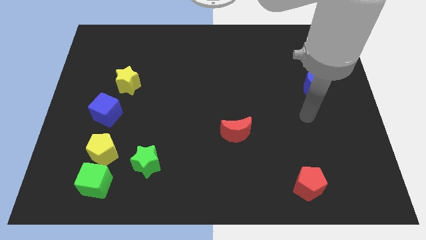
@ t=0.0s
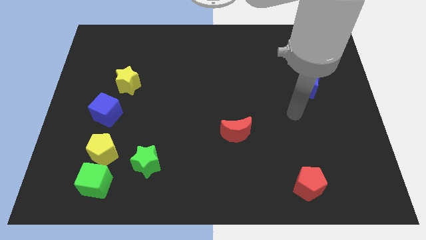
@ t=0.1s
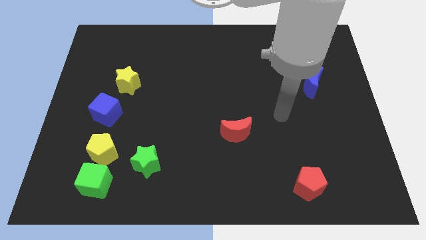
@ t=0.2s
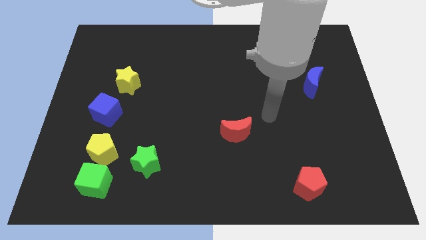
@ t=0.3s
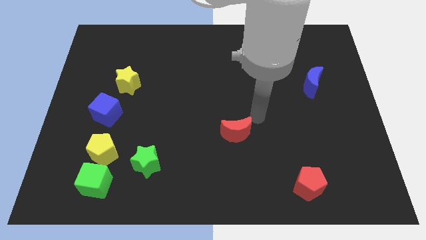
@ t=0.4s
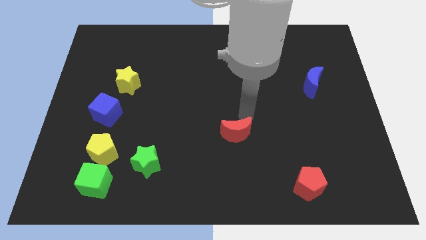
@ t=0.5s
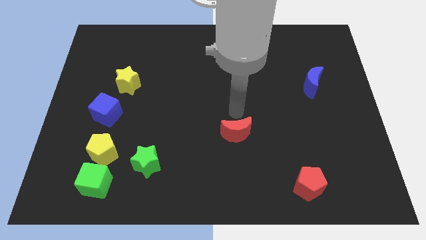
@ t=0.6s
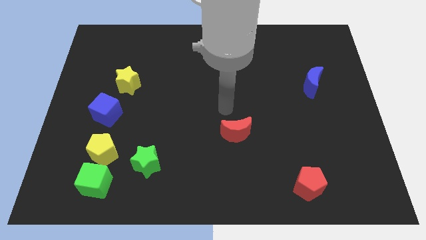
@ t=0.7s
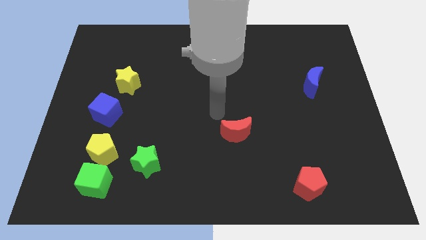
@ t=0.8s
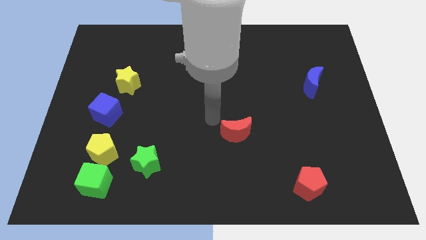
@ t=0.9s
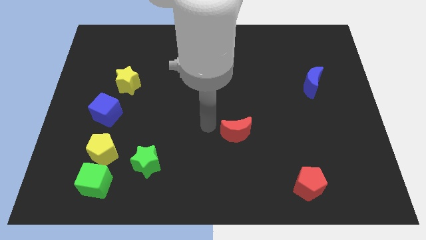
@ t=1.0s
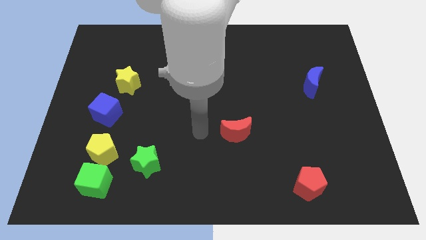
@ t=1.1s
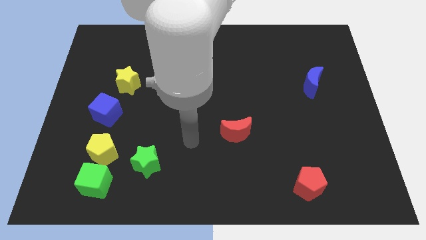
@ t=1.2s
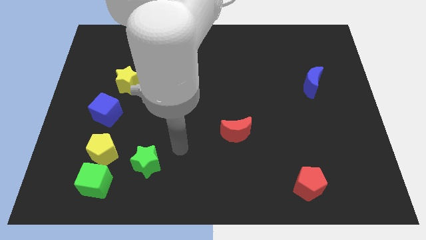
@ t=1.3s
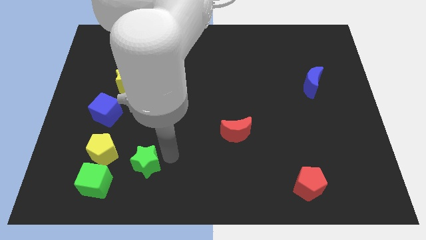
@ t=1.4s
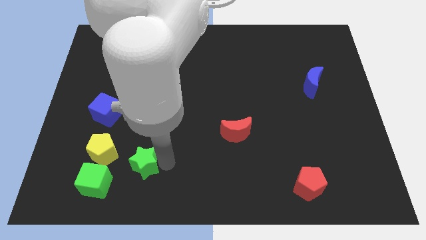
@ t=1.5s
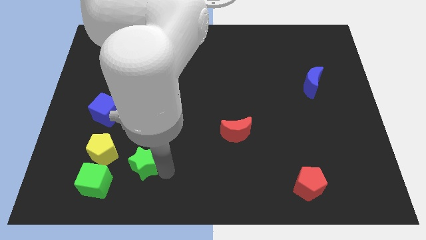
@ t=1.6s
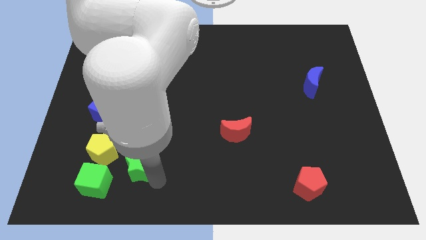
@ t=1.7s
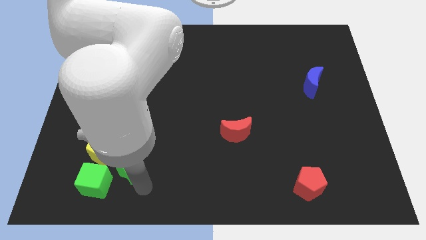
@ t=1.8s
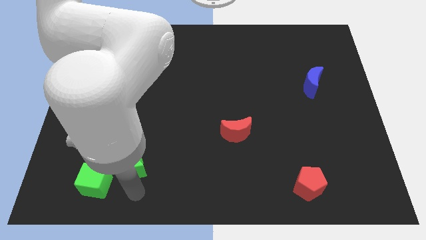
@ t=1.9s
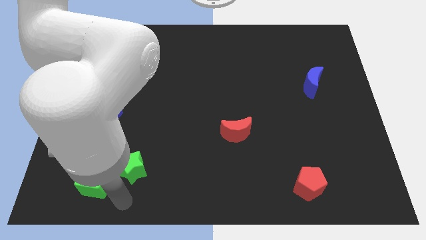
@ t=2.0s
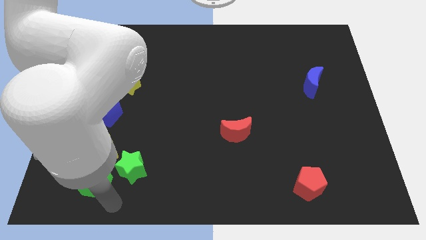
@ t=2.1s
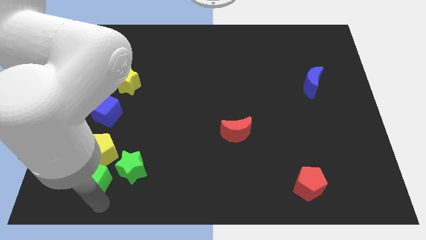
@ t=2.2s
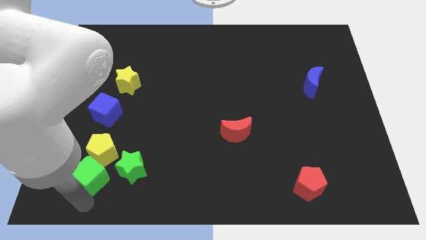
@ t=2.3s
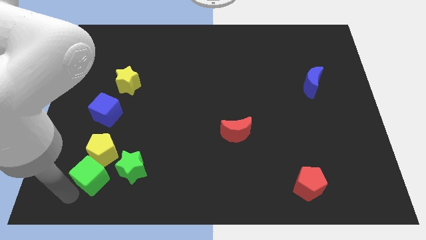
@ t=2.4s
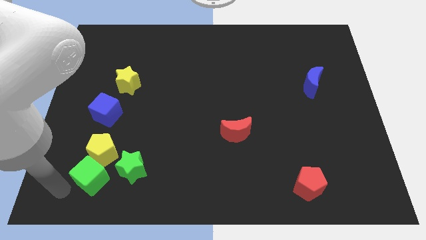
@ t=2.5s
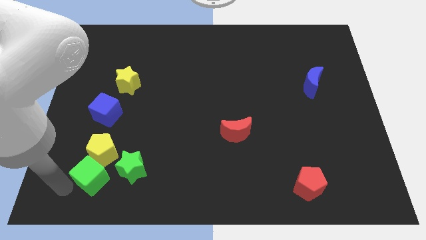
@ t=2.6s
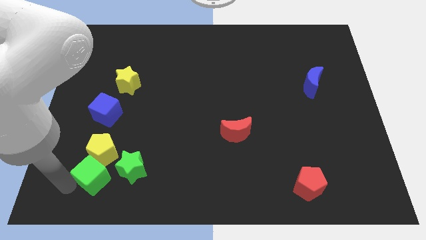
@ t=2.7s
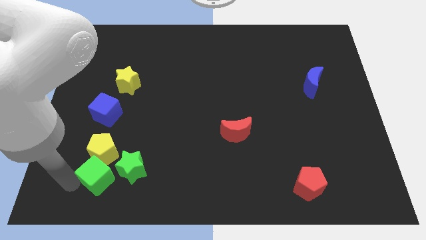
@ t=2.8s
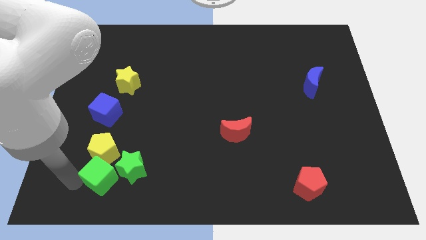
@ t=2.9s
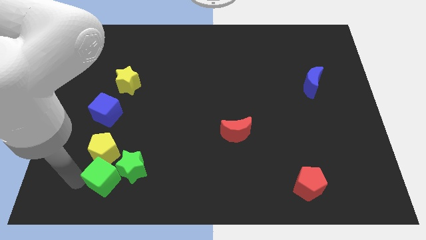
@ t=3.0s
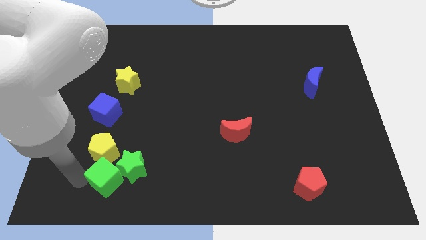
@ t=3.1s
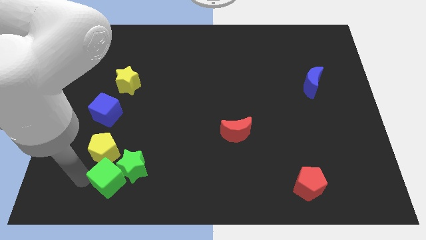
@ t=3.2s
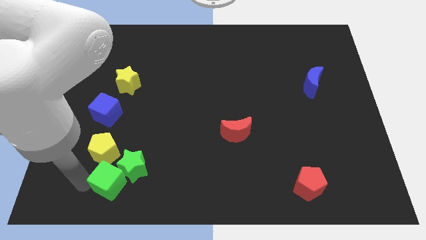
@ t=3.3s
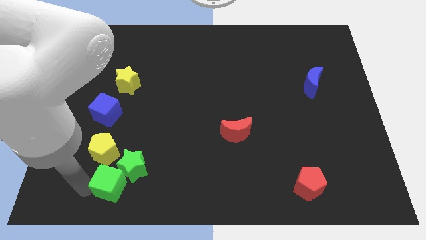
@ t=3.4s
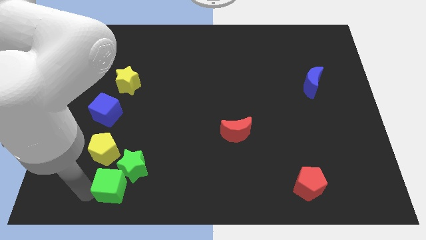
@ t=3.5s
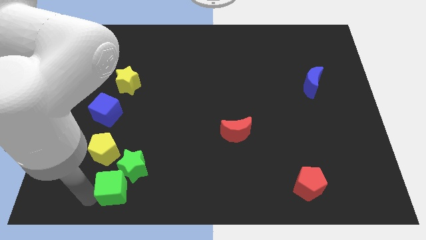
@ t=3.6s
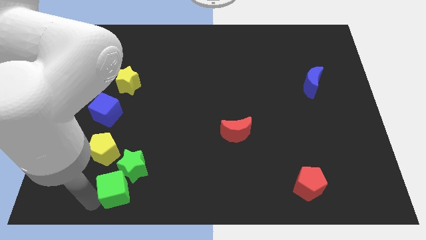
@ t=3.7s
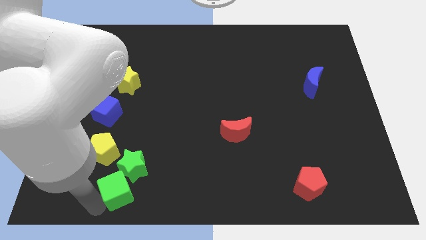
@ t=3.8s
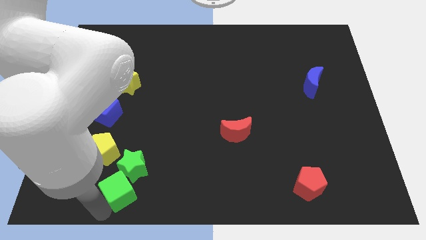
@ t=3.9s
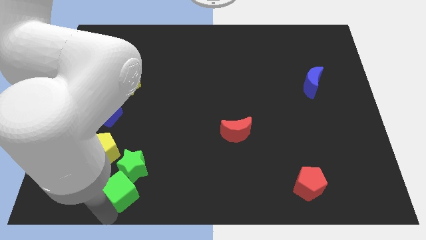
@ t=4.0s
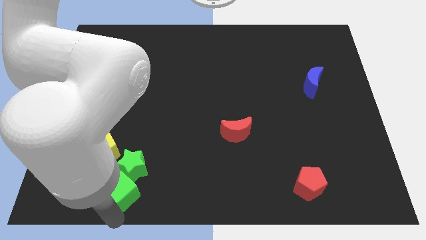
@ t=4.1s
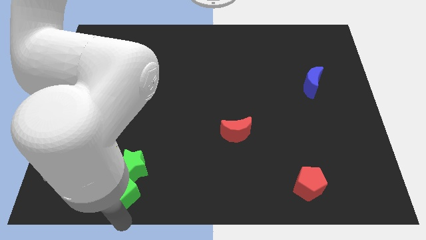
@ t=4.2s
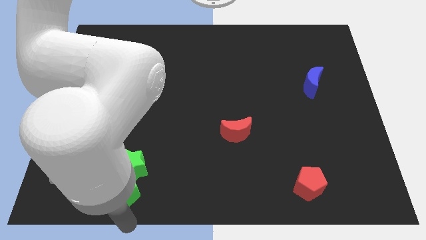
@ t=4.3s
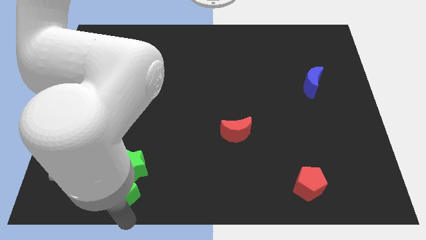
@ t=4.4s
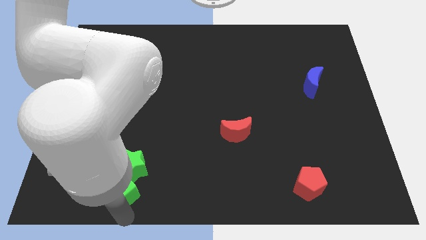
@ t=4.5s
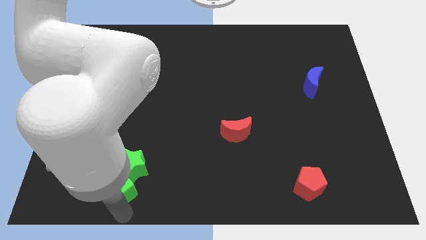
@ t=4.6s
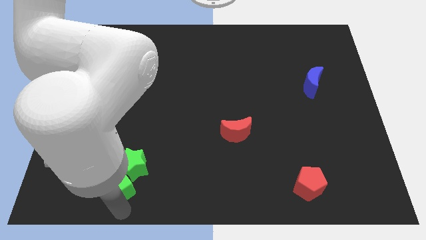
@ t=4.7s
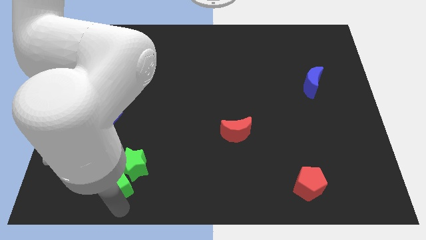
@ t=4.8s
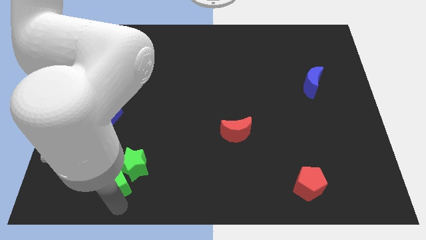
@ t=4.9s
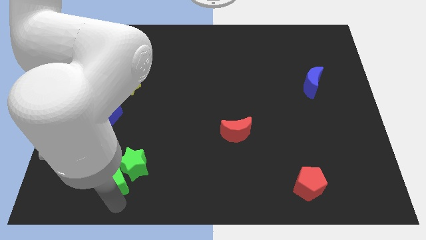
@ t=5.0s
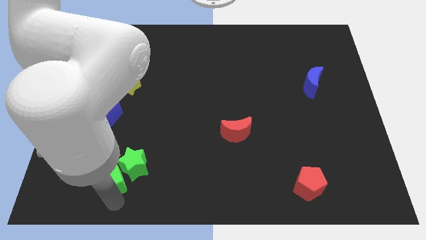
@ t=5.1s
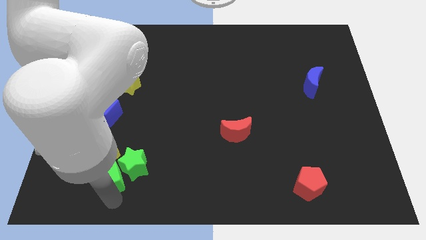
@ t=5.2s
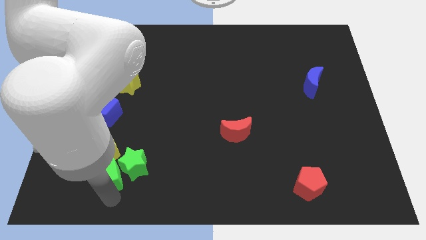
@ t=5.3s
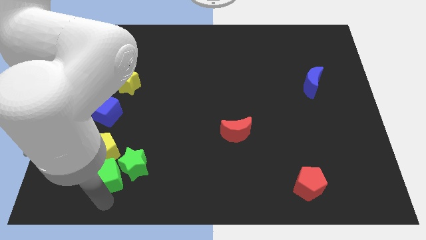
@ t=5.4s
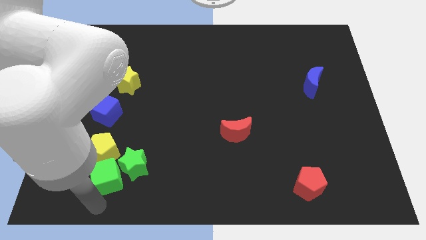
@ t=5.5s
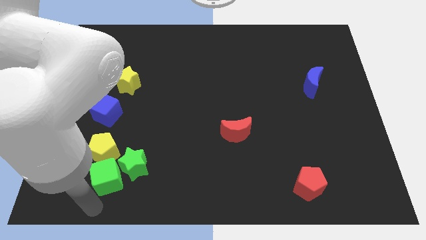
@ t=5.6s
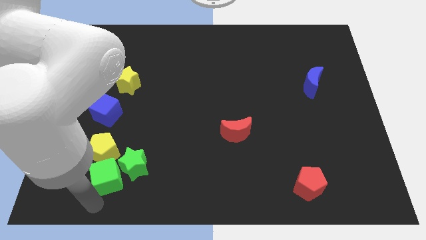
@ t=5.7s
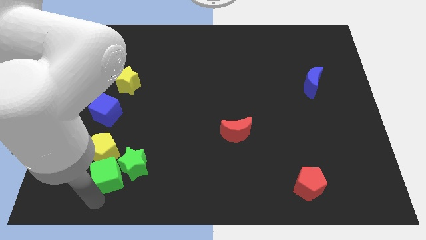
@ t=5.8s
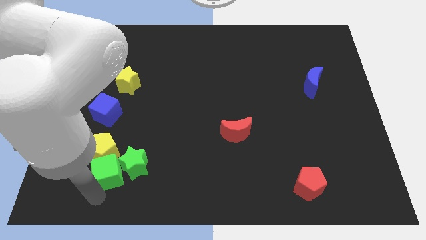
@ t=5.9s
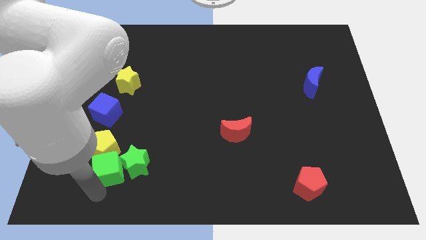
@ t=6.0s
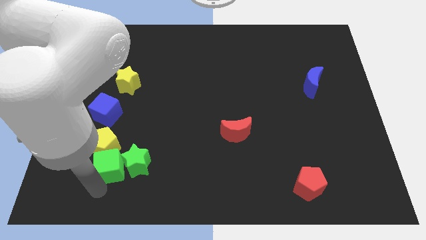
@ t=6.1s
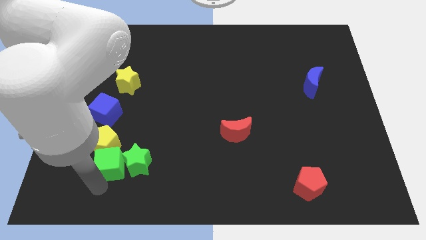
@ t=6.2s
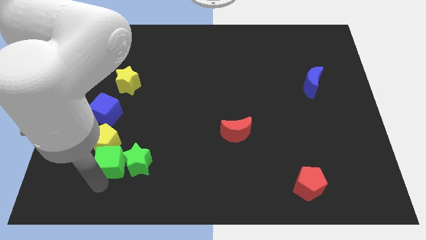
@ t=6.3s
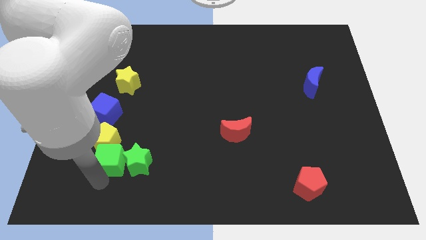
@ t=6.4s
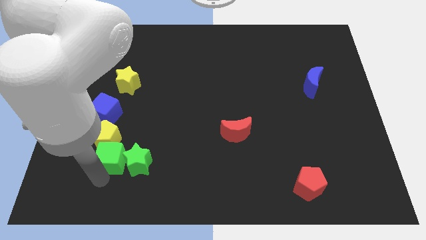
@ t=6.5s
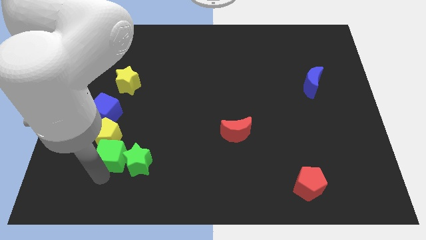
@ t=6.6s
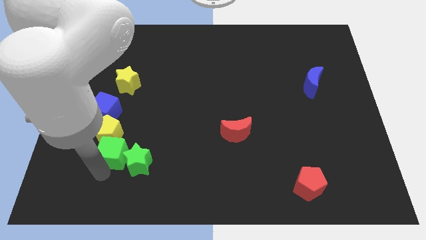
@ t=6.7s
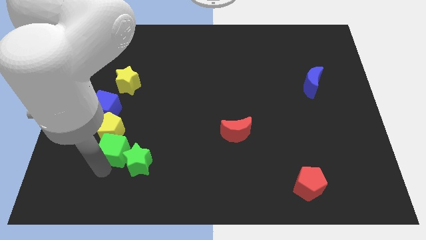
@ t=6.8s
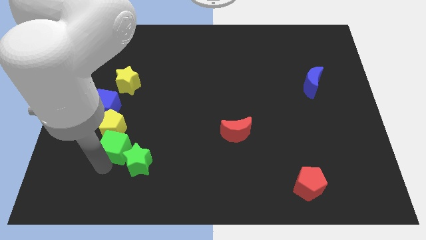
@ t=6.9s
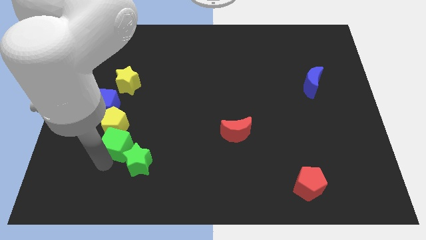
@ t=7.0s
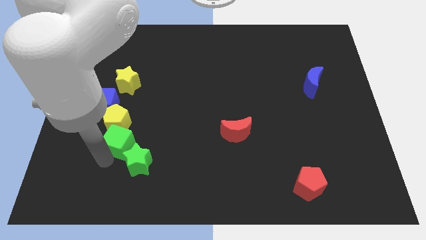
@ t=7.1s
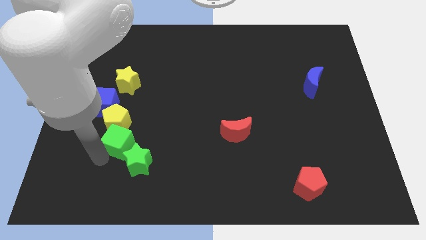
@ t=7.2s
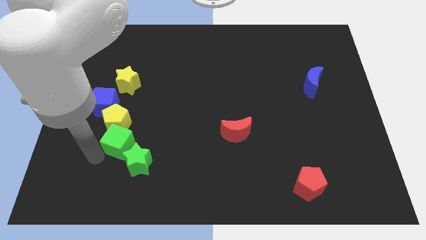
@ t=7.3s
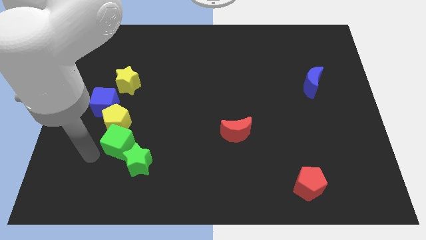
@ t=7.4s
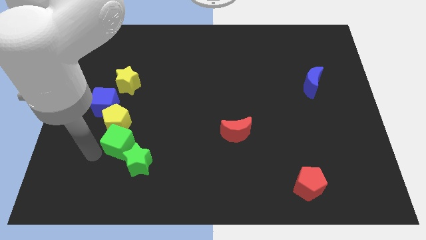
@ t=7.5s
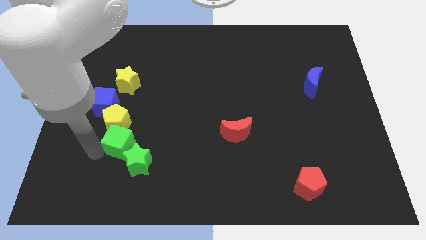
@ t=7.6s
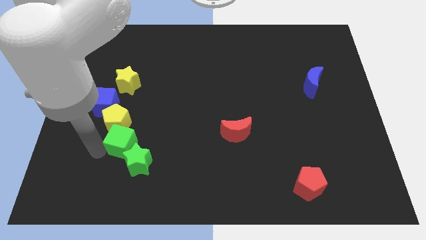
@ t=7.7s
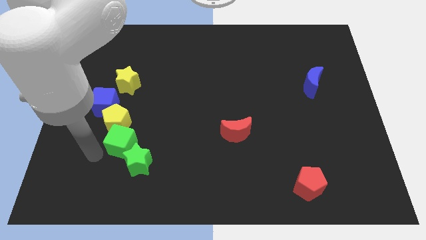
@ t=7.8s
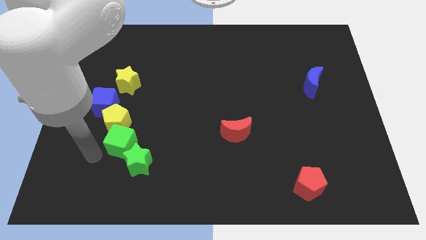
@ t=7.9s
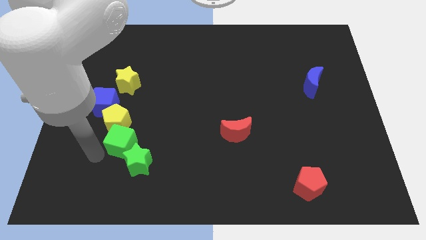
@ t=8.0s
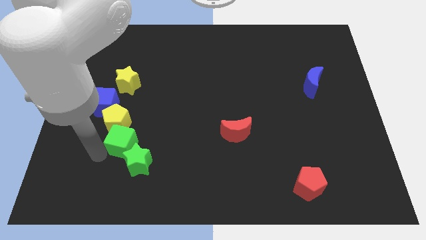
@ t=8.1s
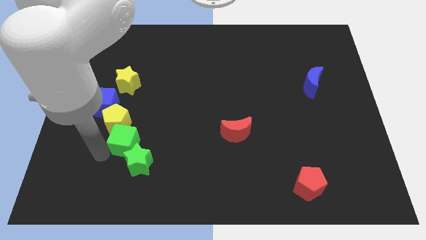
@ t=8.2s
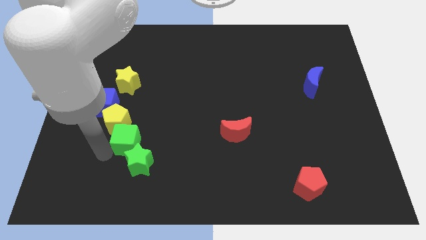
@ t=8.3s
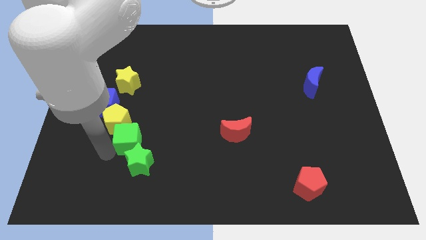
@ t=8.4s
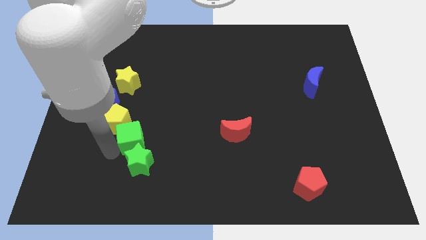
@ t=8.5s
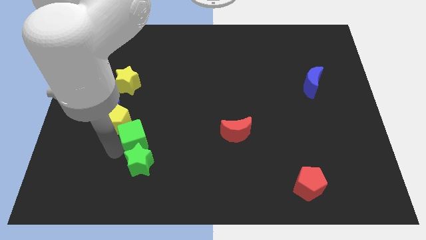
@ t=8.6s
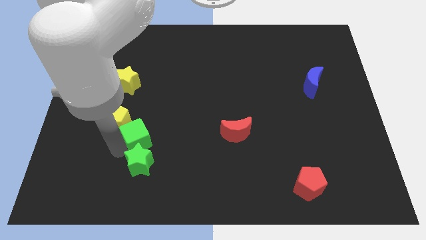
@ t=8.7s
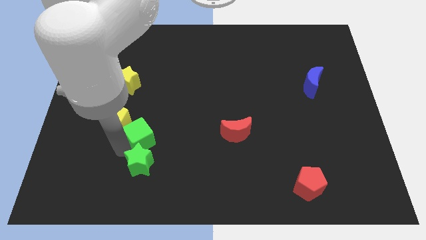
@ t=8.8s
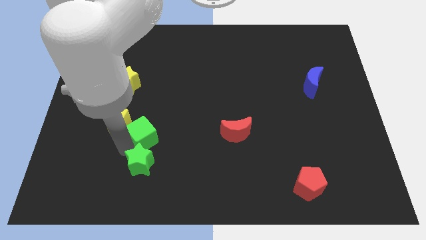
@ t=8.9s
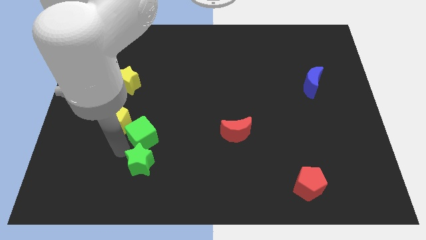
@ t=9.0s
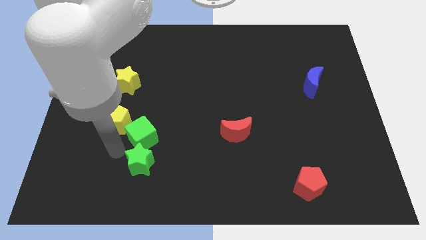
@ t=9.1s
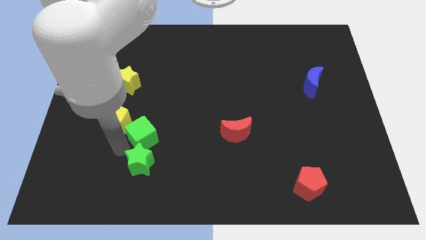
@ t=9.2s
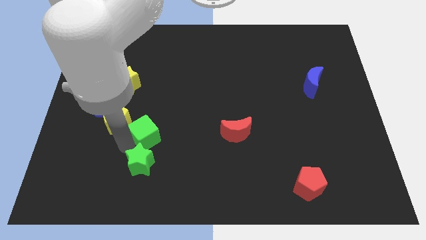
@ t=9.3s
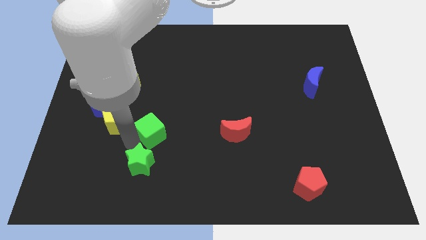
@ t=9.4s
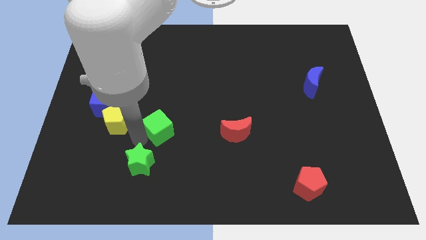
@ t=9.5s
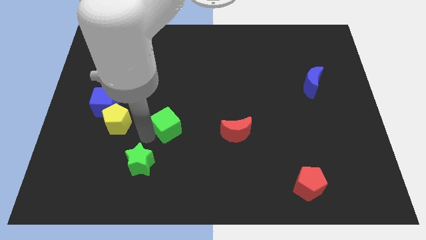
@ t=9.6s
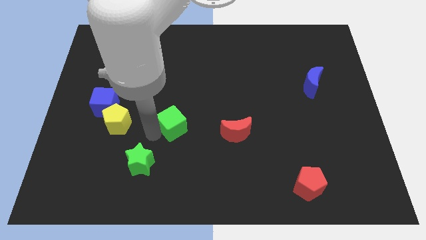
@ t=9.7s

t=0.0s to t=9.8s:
push the green cube up and to the right
